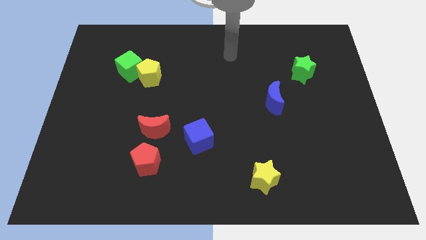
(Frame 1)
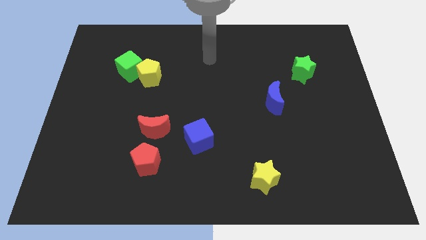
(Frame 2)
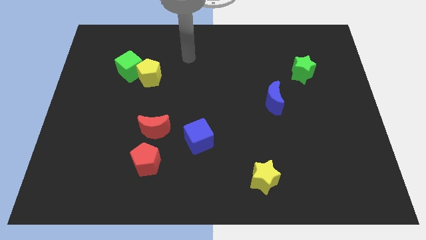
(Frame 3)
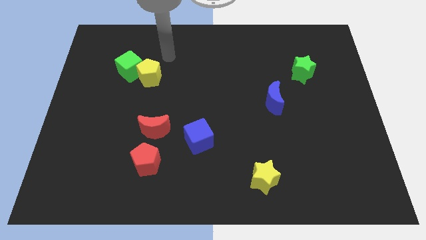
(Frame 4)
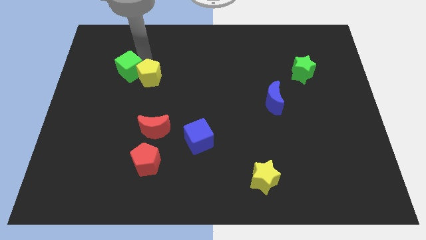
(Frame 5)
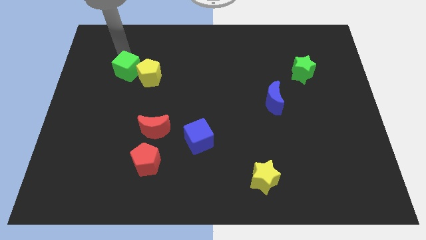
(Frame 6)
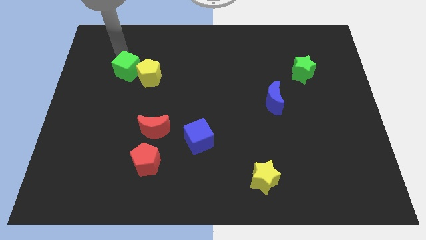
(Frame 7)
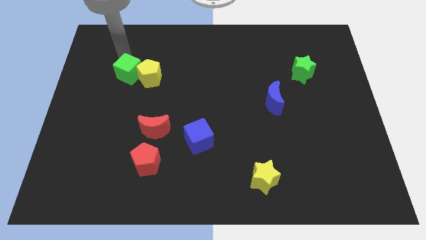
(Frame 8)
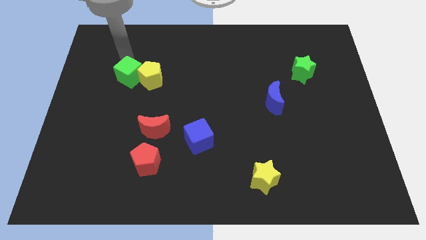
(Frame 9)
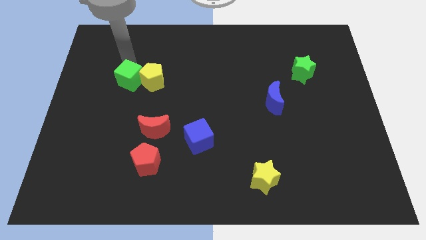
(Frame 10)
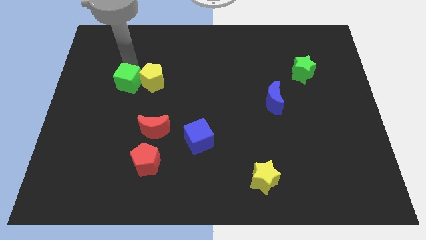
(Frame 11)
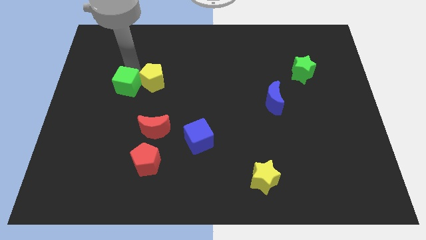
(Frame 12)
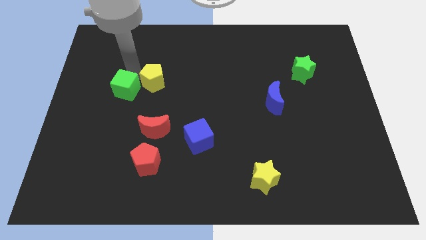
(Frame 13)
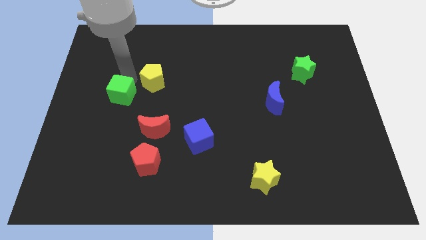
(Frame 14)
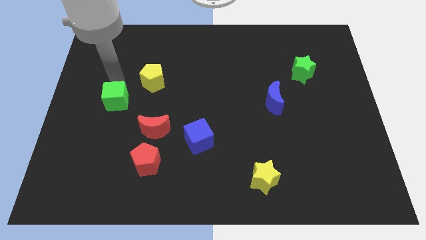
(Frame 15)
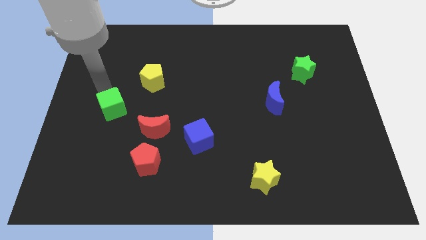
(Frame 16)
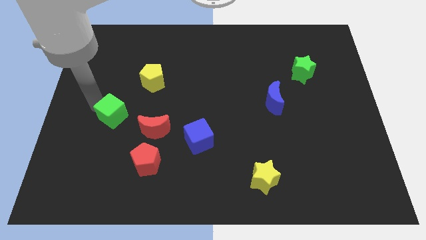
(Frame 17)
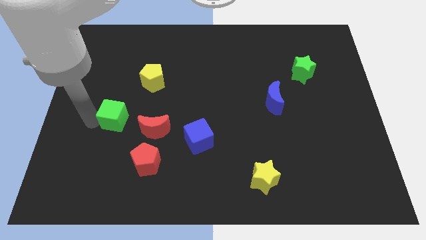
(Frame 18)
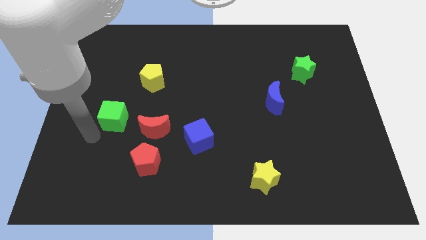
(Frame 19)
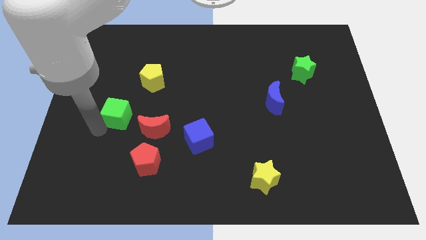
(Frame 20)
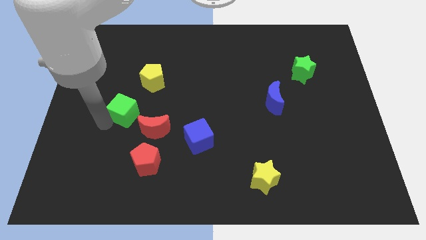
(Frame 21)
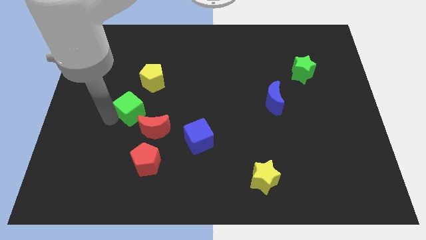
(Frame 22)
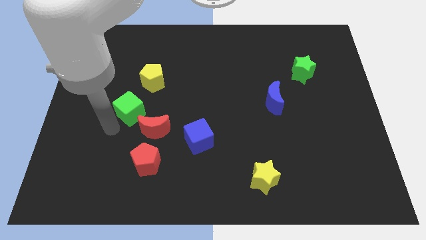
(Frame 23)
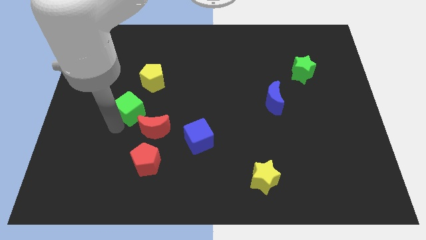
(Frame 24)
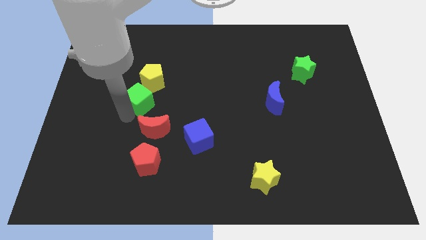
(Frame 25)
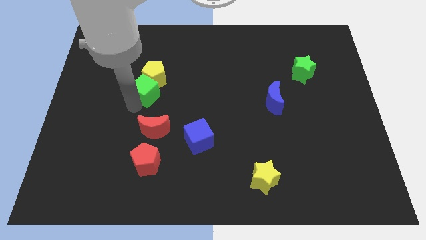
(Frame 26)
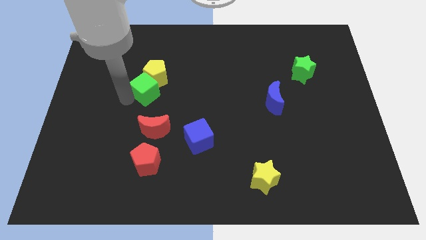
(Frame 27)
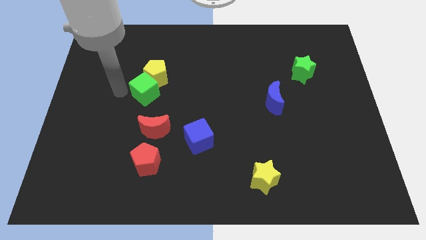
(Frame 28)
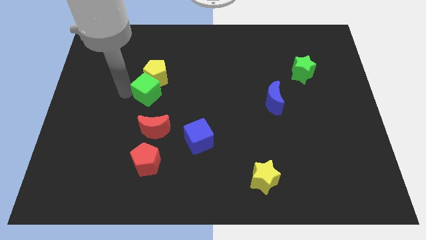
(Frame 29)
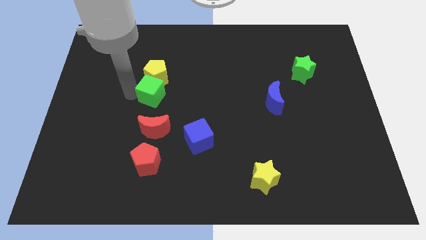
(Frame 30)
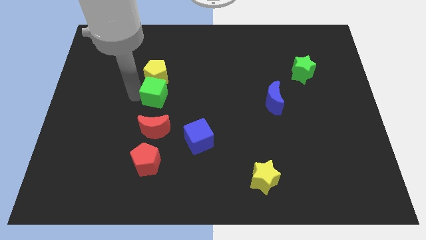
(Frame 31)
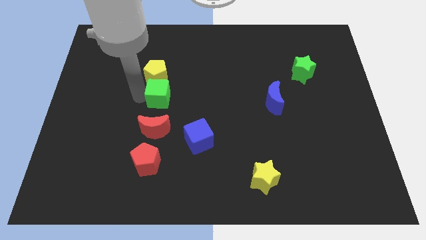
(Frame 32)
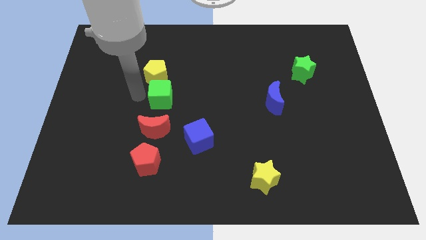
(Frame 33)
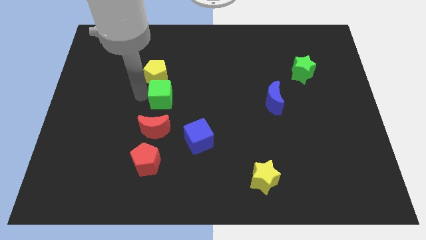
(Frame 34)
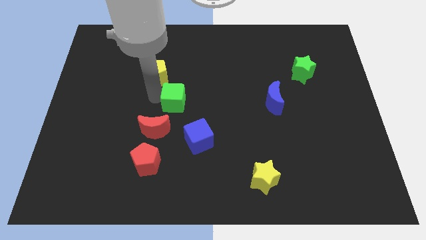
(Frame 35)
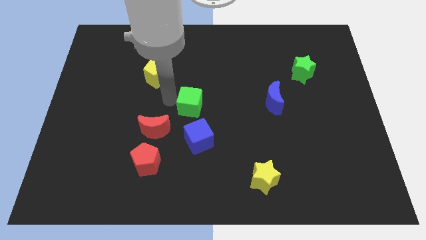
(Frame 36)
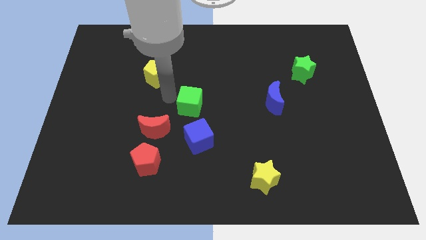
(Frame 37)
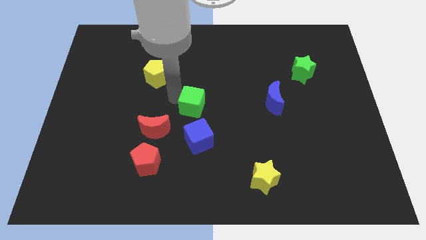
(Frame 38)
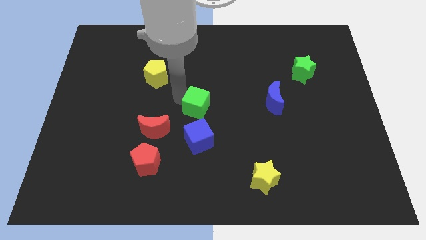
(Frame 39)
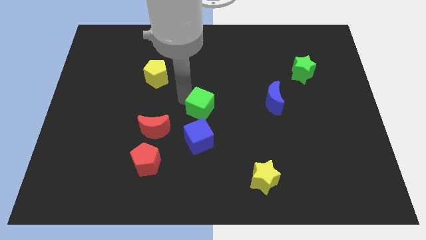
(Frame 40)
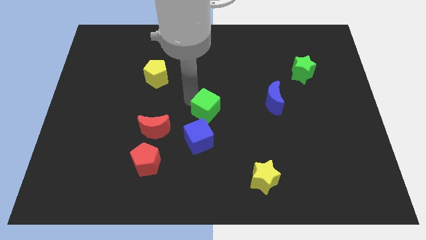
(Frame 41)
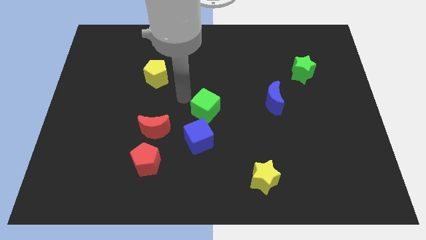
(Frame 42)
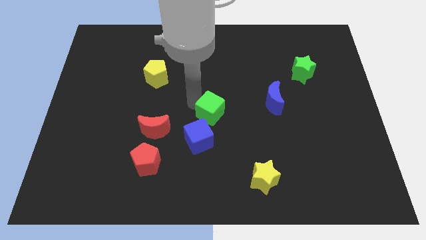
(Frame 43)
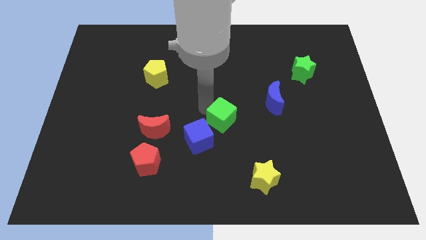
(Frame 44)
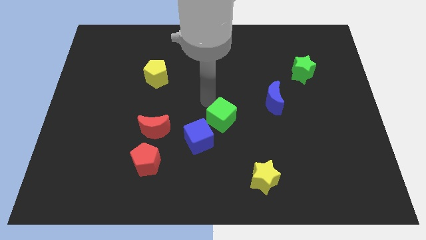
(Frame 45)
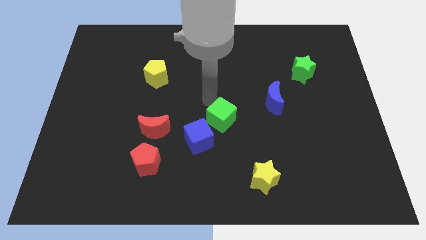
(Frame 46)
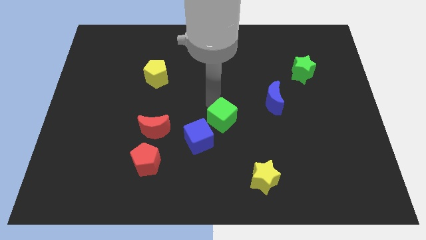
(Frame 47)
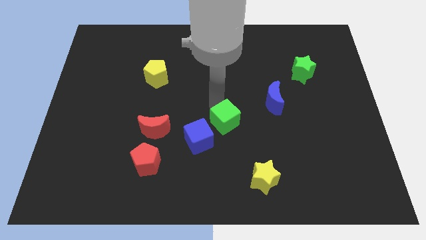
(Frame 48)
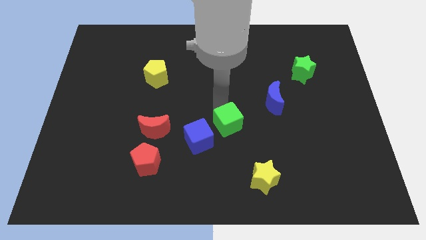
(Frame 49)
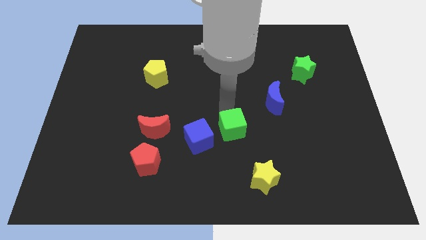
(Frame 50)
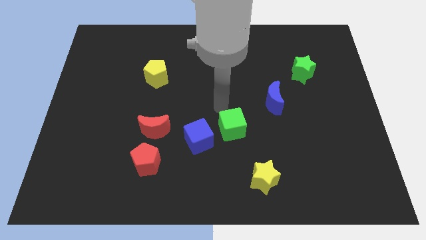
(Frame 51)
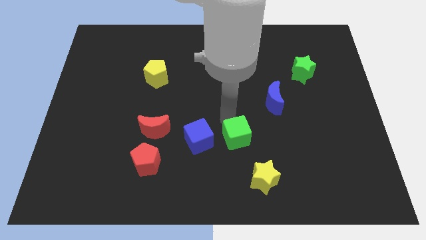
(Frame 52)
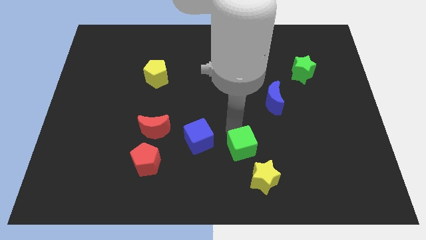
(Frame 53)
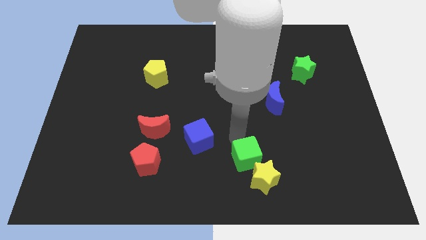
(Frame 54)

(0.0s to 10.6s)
move the green cube close to the yellow star

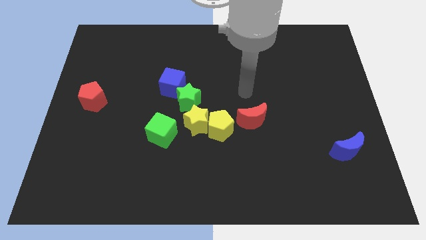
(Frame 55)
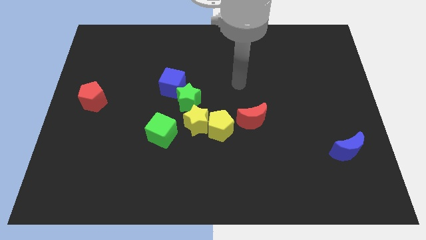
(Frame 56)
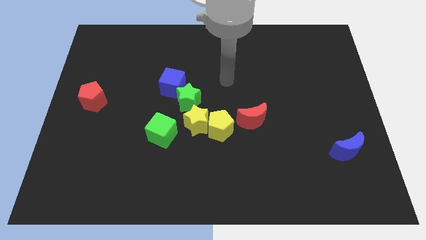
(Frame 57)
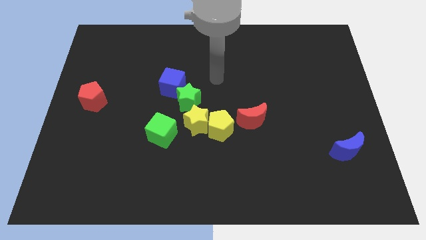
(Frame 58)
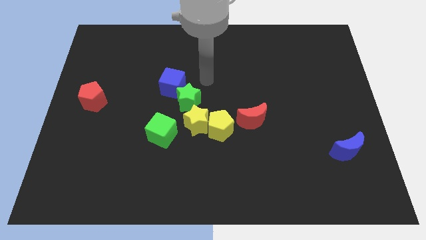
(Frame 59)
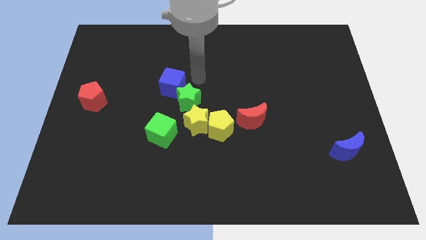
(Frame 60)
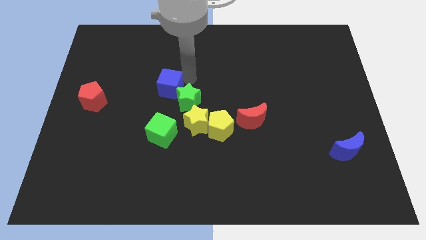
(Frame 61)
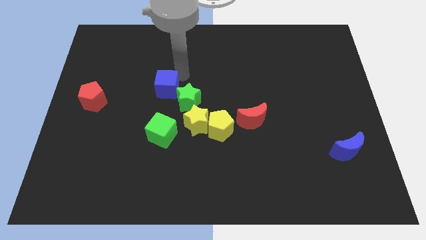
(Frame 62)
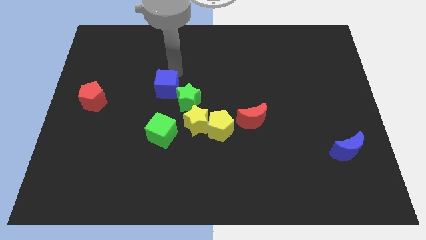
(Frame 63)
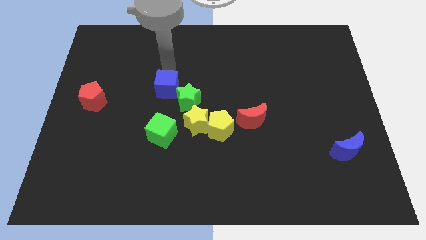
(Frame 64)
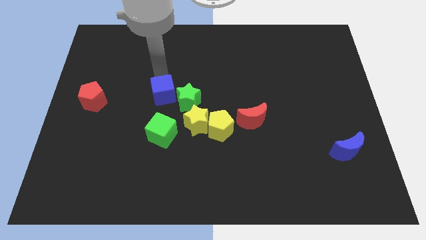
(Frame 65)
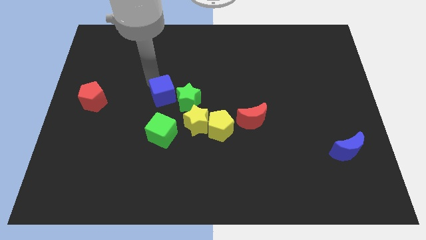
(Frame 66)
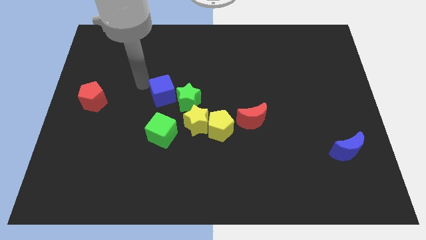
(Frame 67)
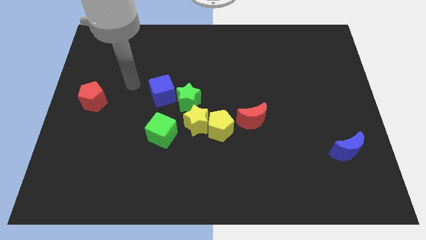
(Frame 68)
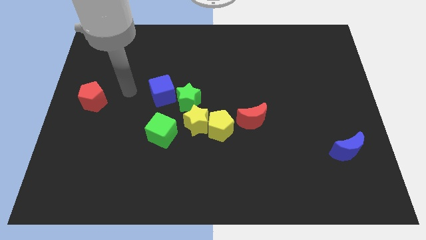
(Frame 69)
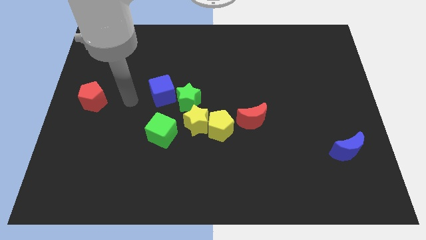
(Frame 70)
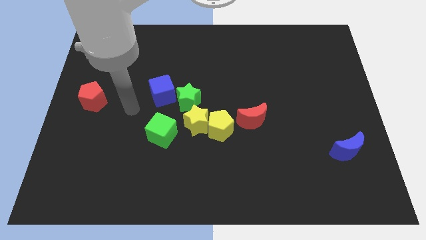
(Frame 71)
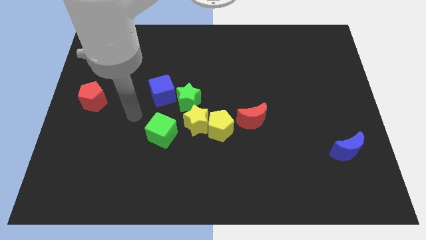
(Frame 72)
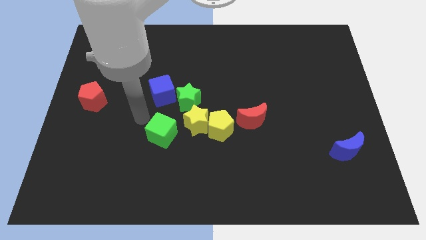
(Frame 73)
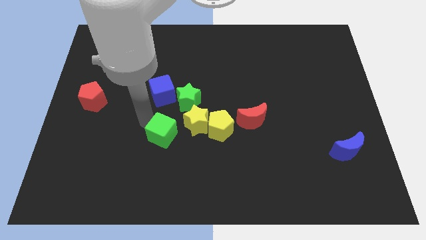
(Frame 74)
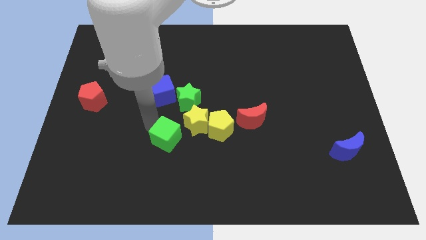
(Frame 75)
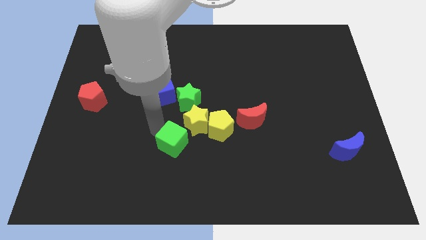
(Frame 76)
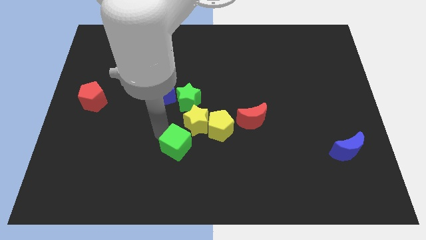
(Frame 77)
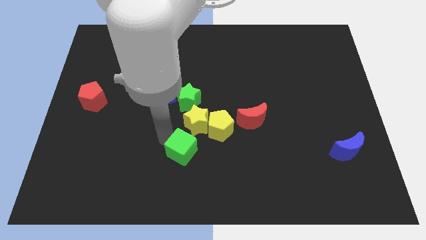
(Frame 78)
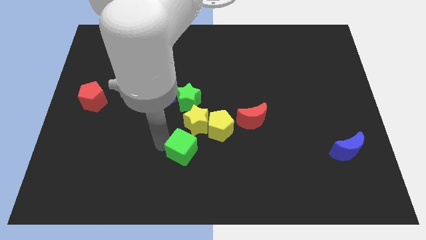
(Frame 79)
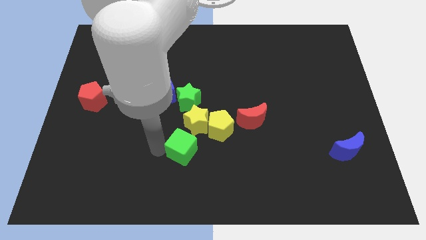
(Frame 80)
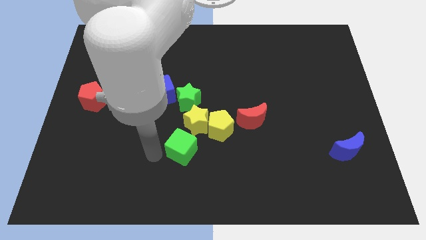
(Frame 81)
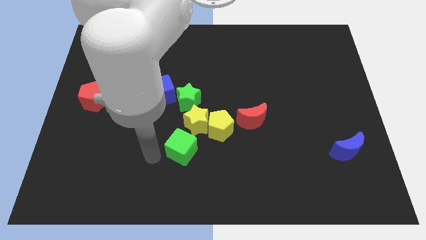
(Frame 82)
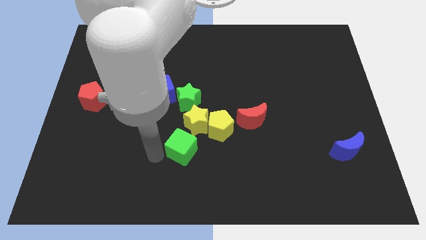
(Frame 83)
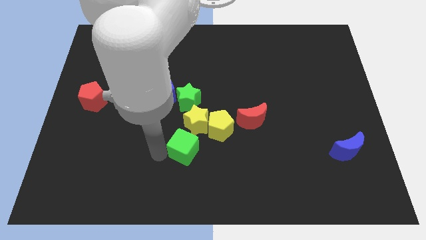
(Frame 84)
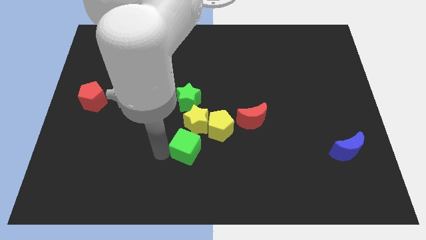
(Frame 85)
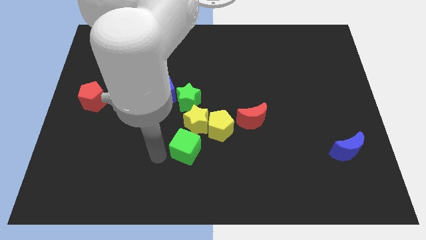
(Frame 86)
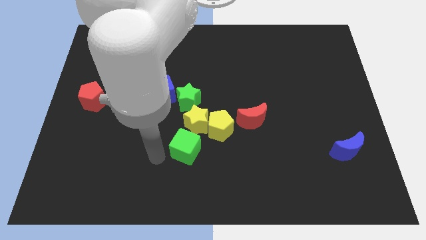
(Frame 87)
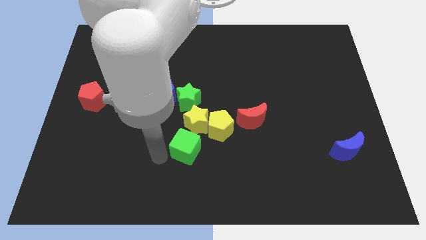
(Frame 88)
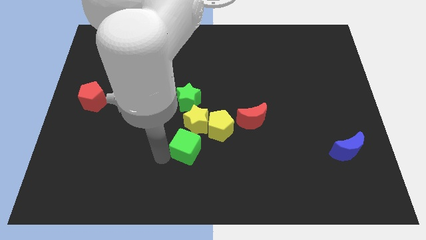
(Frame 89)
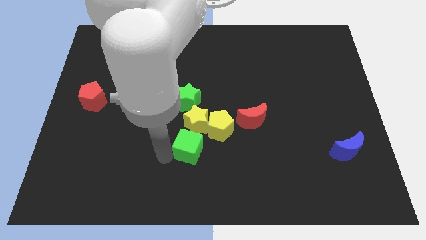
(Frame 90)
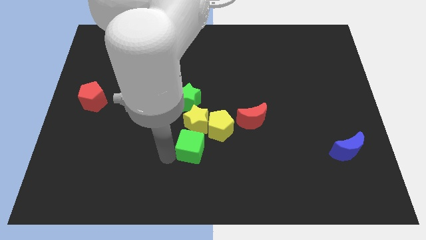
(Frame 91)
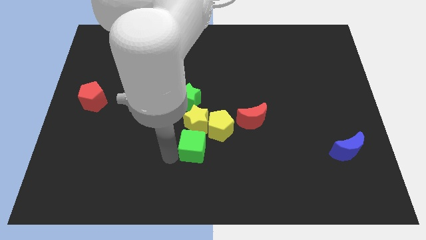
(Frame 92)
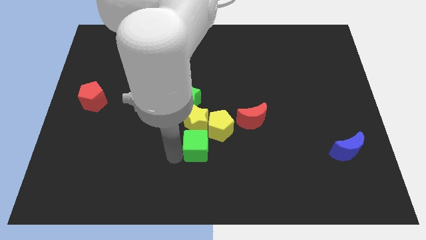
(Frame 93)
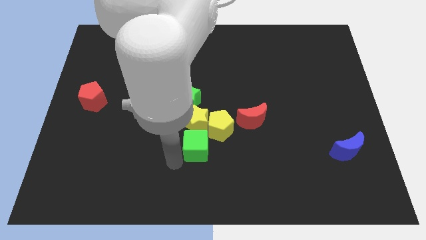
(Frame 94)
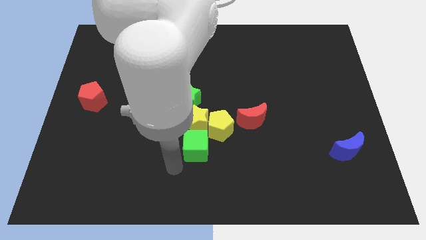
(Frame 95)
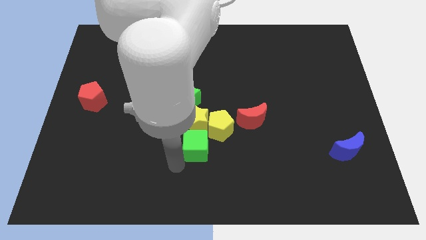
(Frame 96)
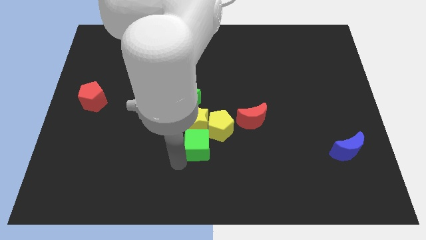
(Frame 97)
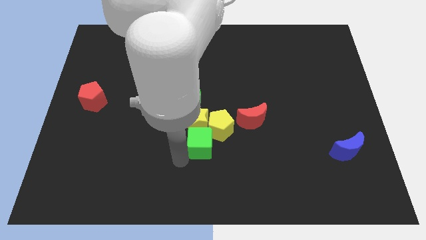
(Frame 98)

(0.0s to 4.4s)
put the green cube close to the yellow pentagon
